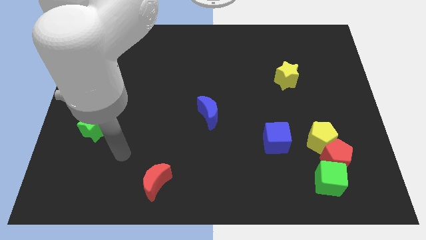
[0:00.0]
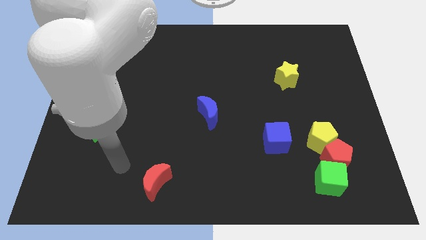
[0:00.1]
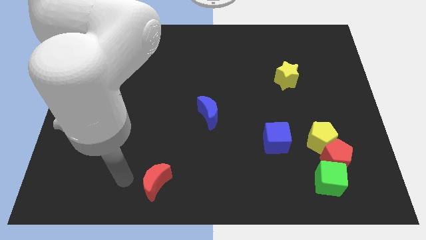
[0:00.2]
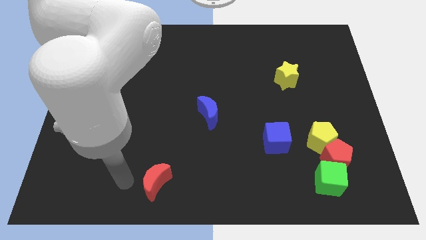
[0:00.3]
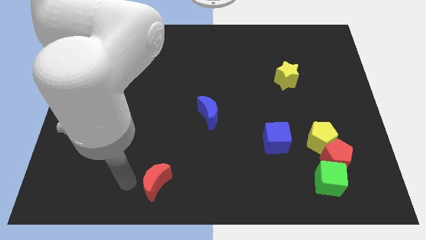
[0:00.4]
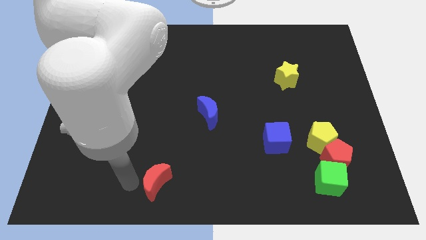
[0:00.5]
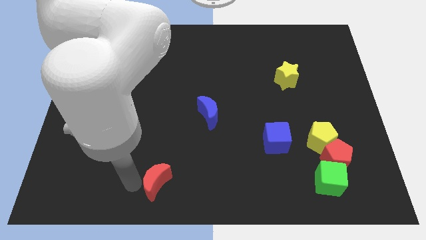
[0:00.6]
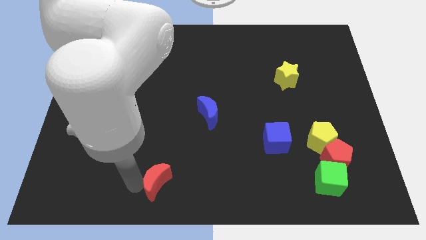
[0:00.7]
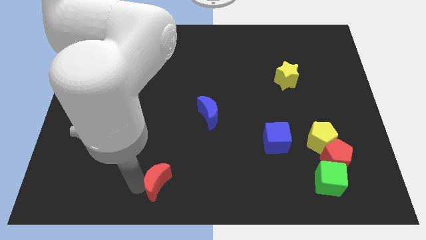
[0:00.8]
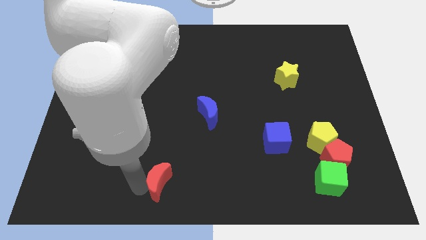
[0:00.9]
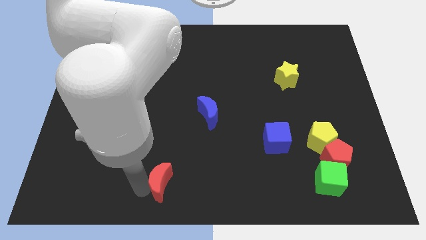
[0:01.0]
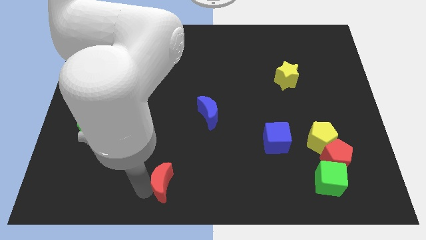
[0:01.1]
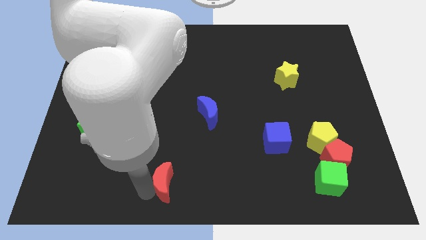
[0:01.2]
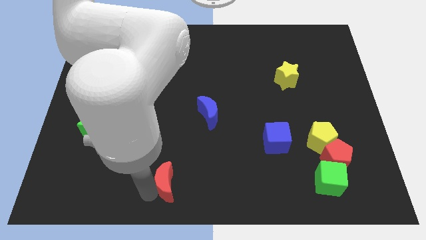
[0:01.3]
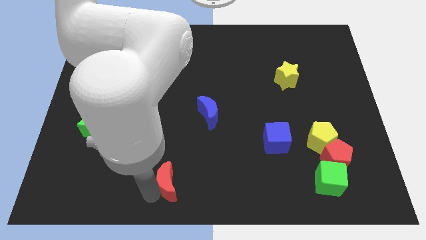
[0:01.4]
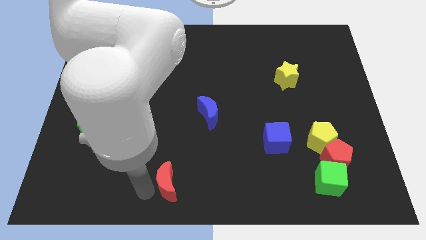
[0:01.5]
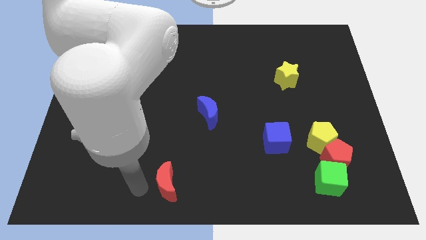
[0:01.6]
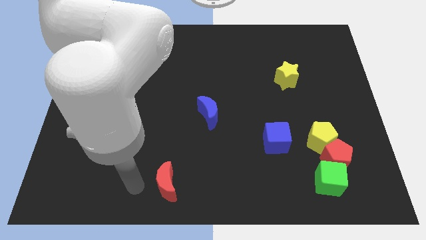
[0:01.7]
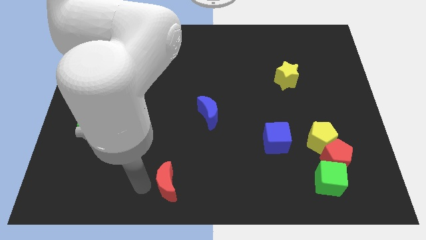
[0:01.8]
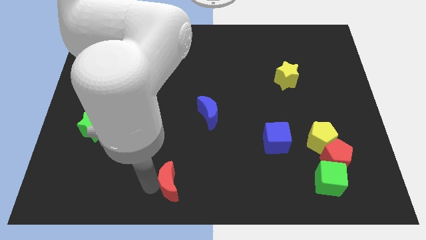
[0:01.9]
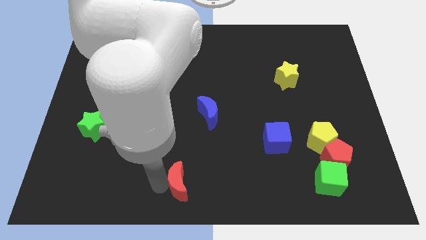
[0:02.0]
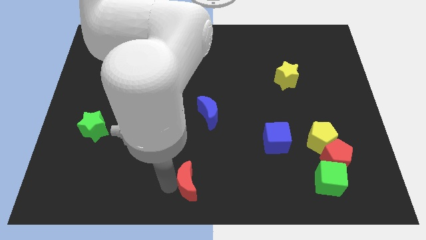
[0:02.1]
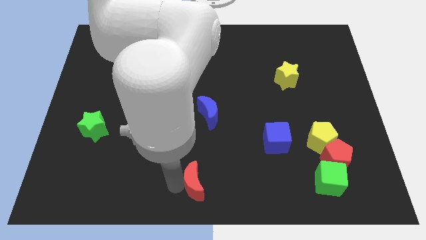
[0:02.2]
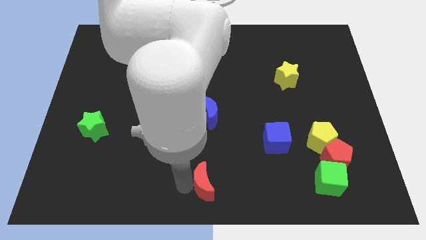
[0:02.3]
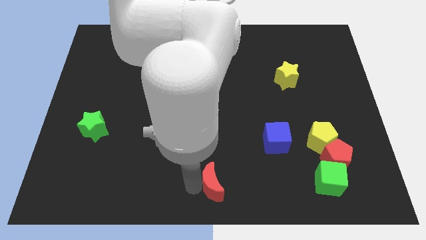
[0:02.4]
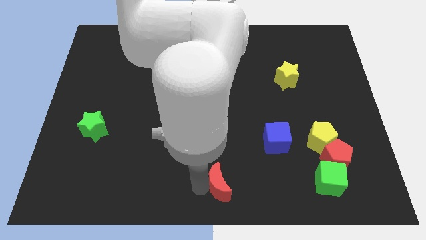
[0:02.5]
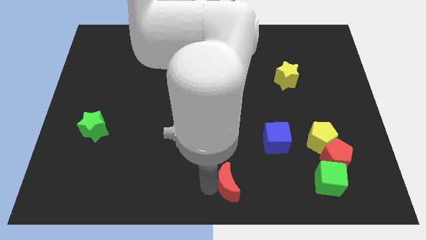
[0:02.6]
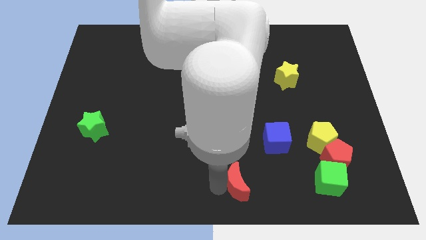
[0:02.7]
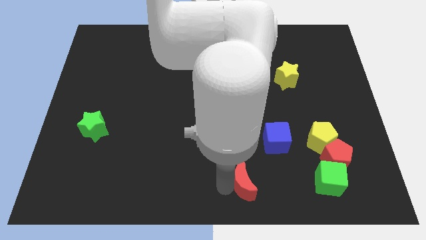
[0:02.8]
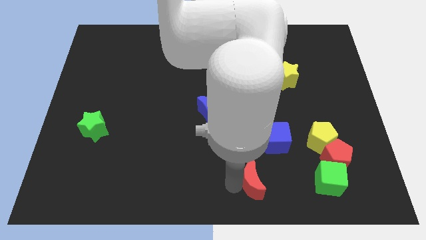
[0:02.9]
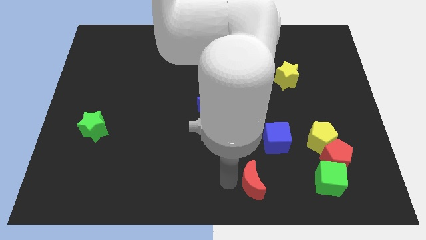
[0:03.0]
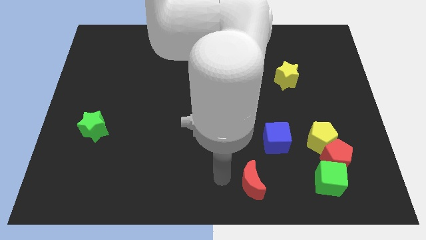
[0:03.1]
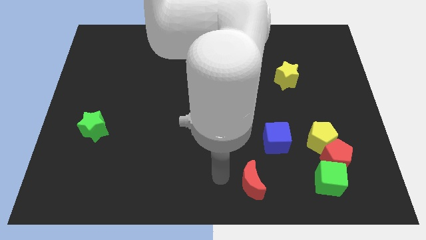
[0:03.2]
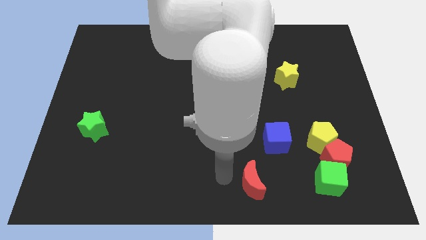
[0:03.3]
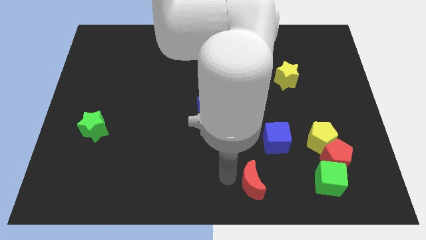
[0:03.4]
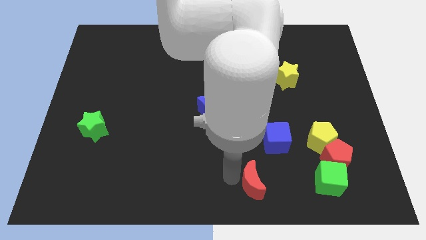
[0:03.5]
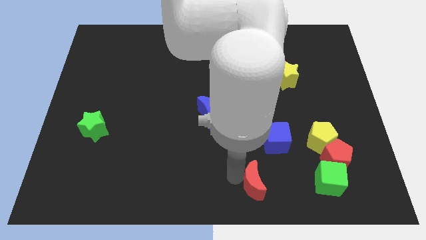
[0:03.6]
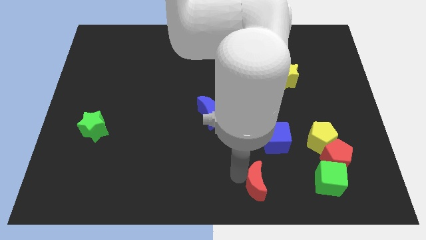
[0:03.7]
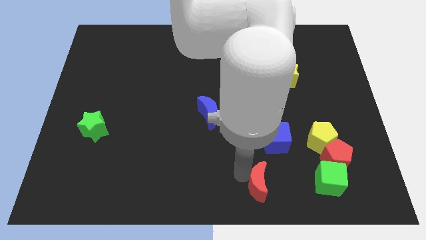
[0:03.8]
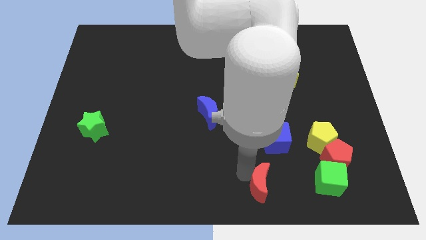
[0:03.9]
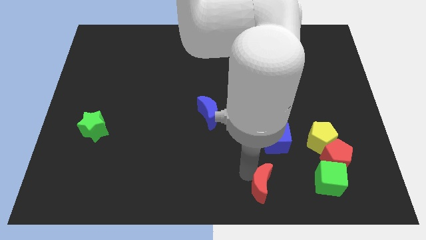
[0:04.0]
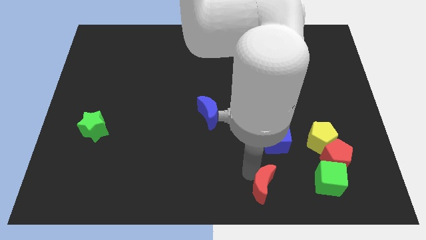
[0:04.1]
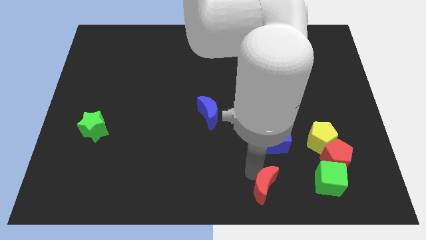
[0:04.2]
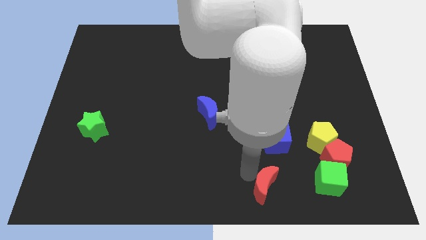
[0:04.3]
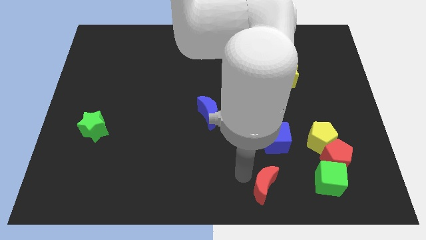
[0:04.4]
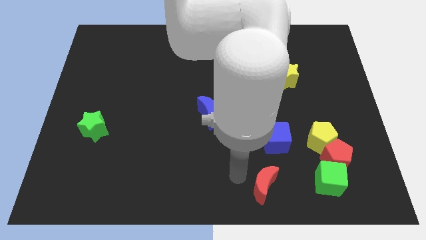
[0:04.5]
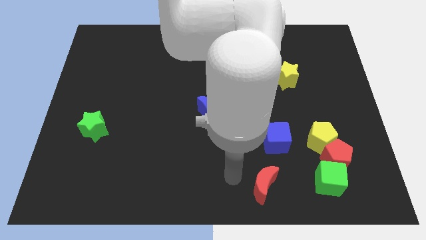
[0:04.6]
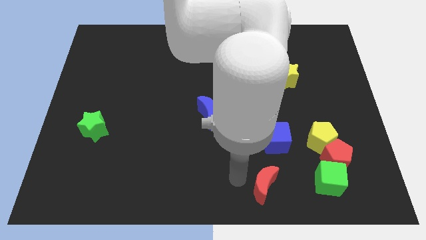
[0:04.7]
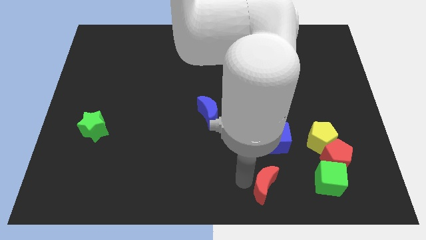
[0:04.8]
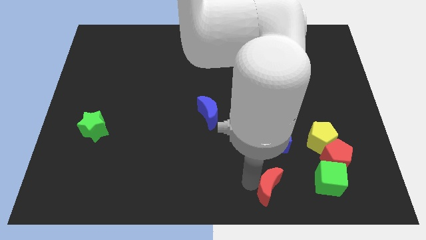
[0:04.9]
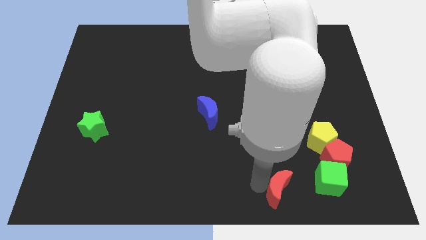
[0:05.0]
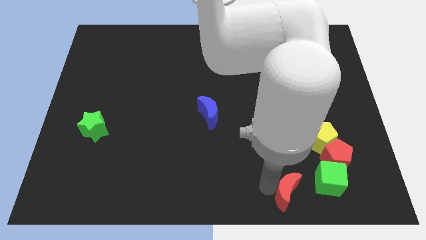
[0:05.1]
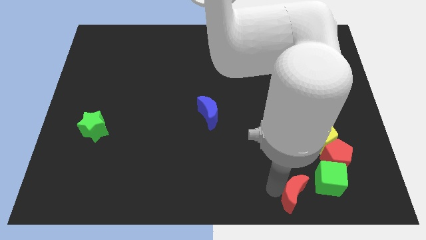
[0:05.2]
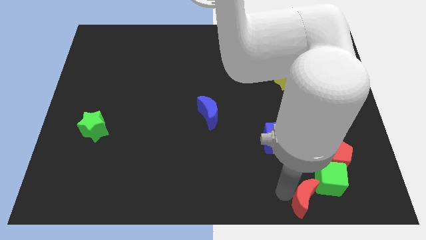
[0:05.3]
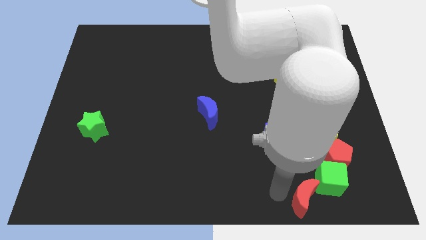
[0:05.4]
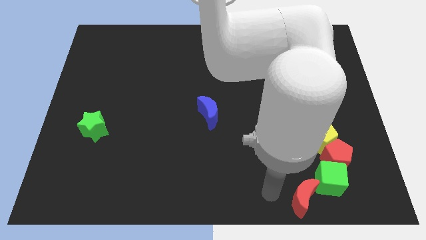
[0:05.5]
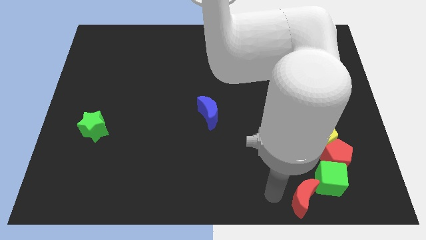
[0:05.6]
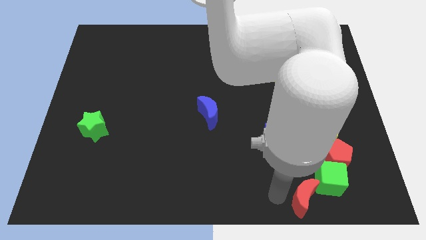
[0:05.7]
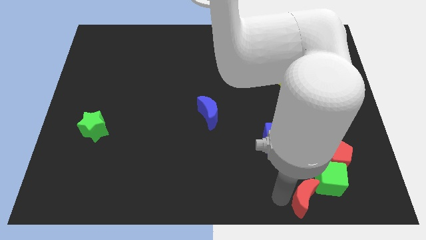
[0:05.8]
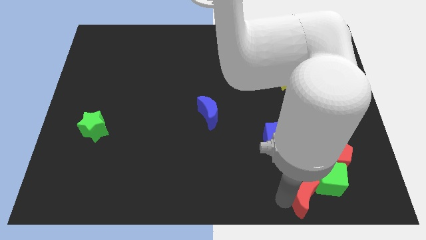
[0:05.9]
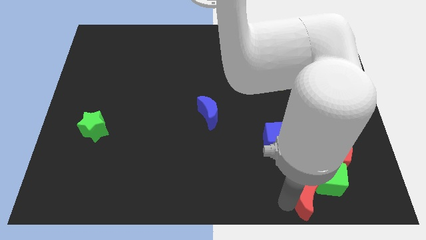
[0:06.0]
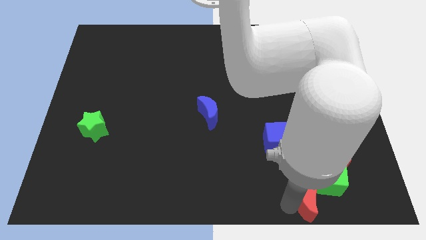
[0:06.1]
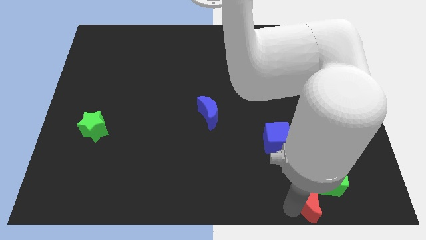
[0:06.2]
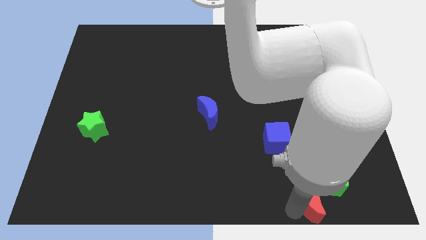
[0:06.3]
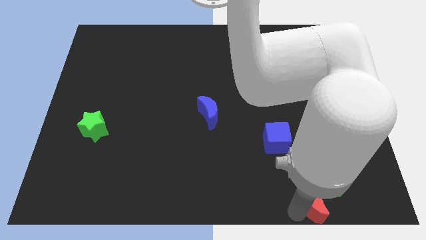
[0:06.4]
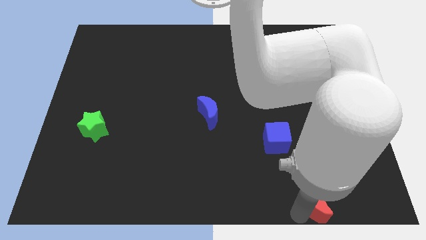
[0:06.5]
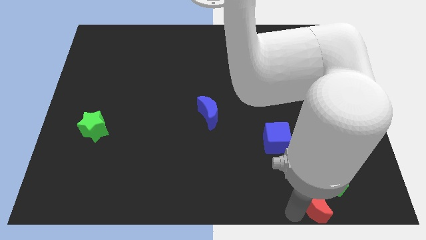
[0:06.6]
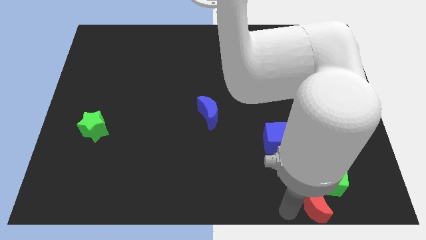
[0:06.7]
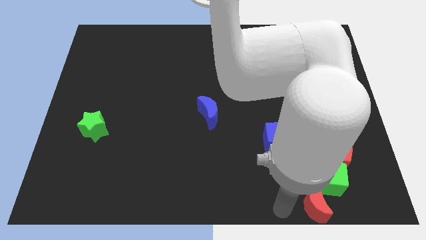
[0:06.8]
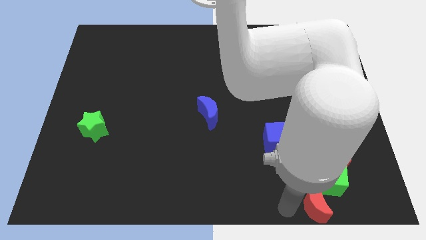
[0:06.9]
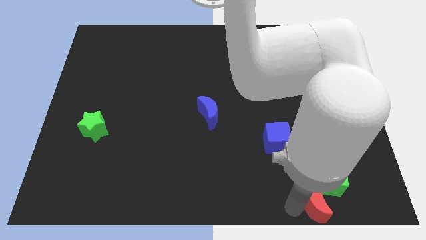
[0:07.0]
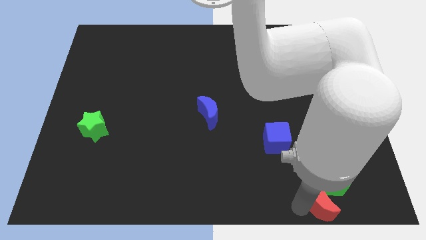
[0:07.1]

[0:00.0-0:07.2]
push the red moon to the bottom side of the yellow pentagon
